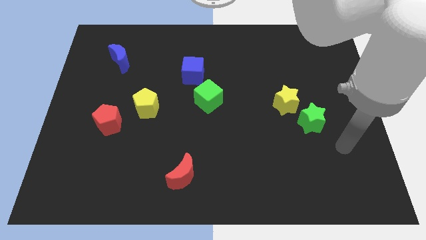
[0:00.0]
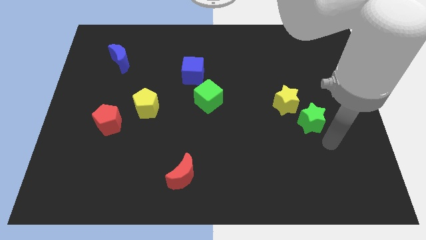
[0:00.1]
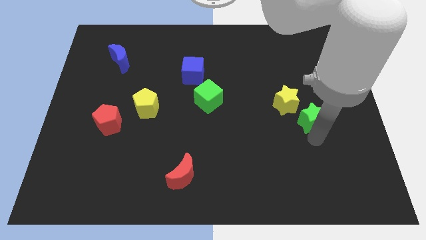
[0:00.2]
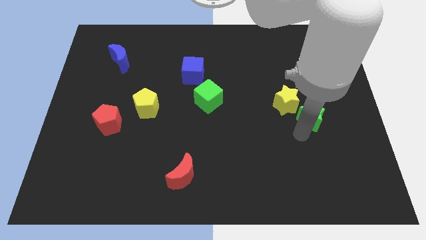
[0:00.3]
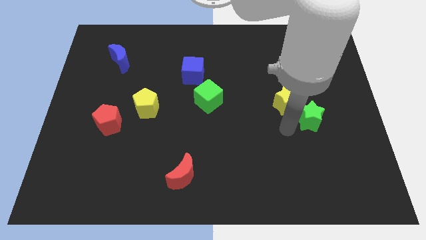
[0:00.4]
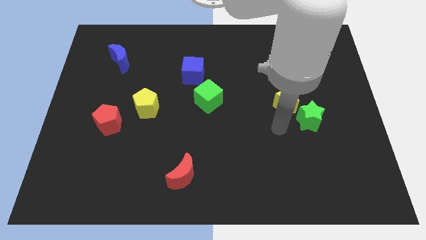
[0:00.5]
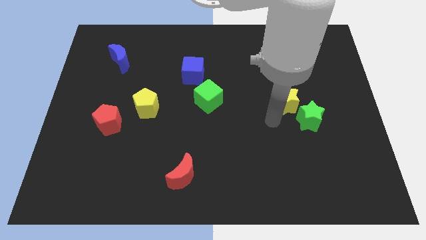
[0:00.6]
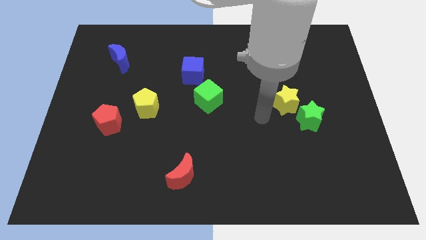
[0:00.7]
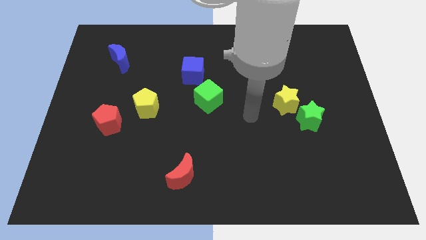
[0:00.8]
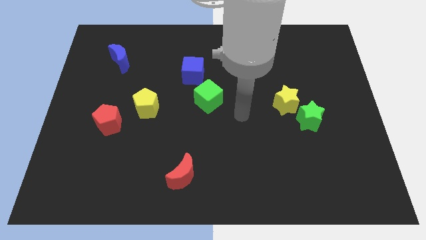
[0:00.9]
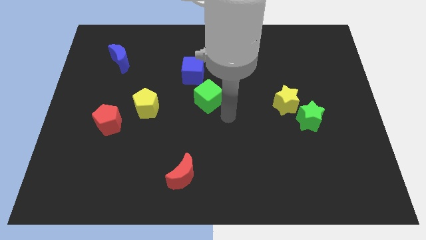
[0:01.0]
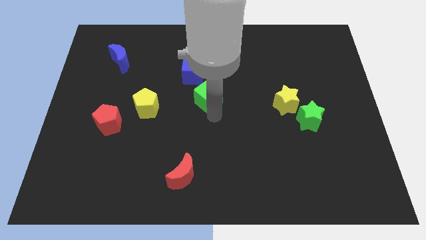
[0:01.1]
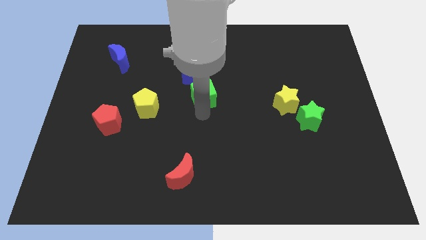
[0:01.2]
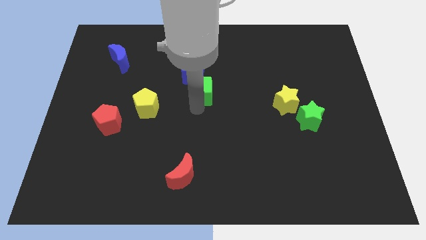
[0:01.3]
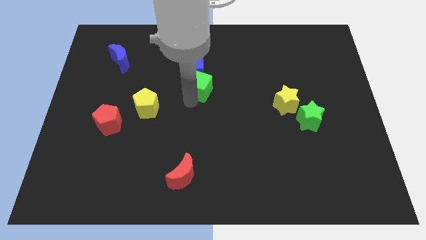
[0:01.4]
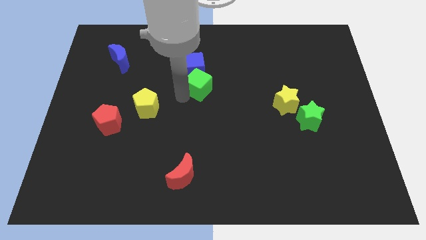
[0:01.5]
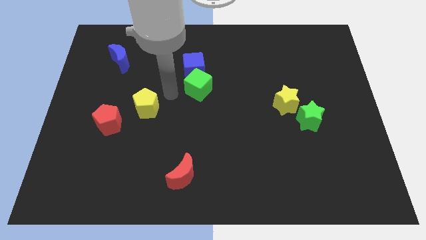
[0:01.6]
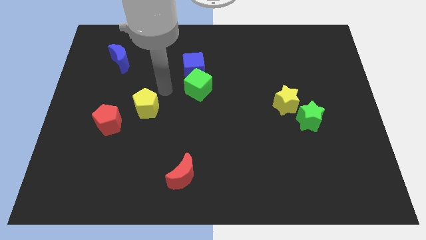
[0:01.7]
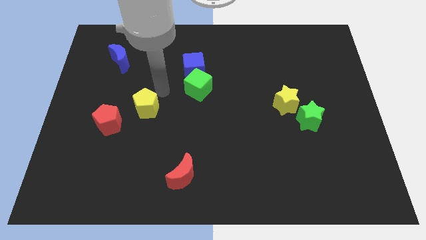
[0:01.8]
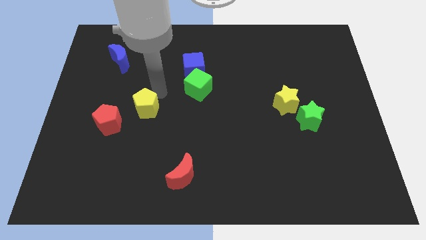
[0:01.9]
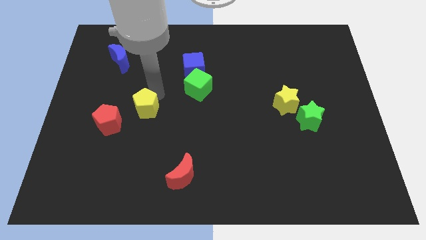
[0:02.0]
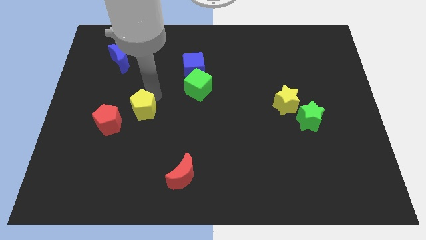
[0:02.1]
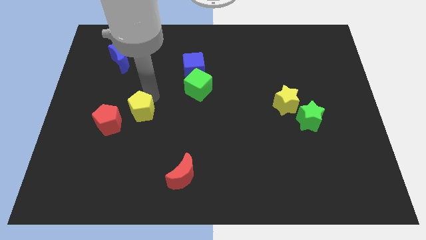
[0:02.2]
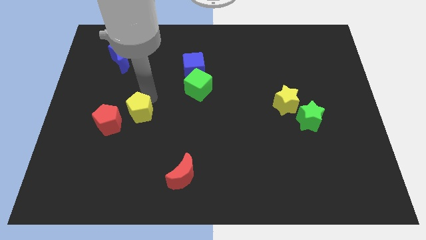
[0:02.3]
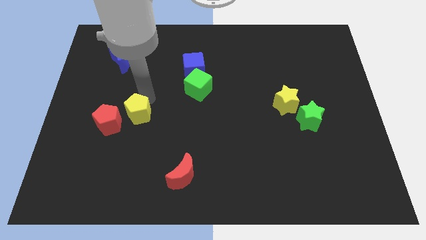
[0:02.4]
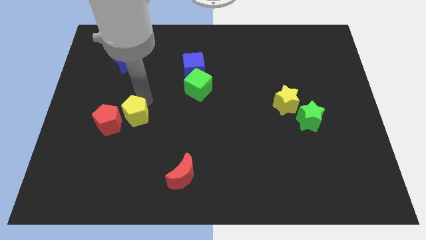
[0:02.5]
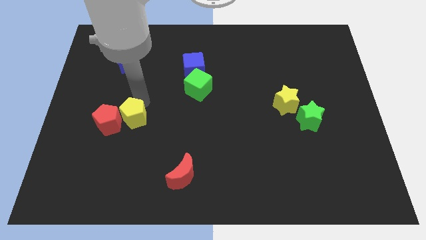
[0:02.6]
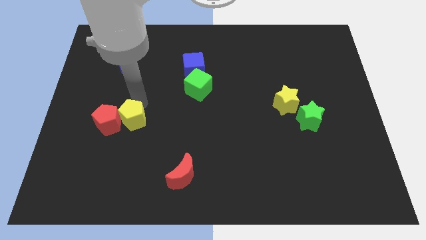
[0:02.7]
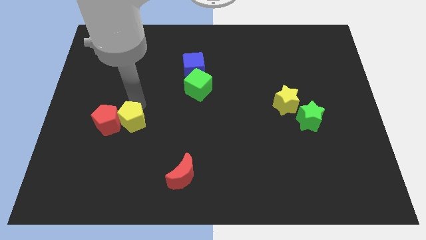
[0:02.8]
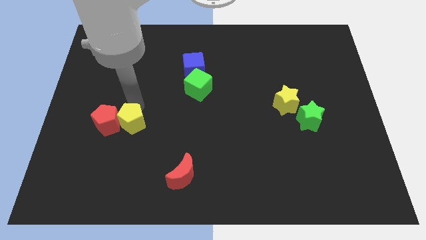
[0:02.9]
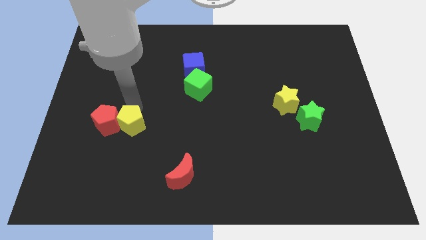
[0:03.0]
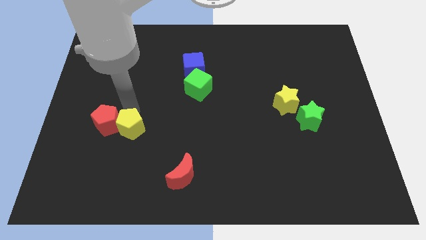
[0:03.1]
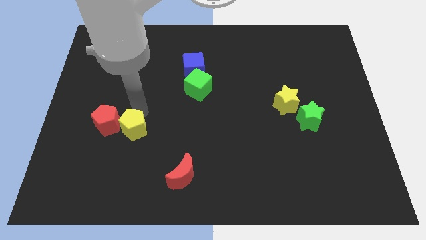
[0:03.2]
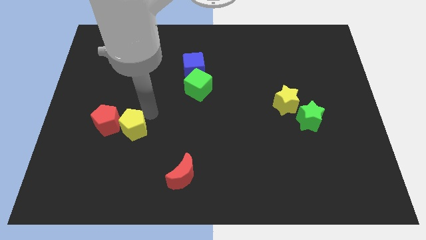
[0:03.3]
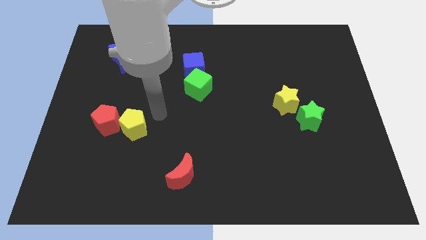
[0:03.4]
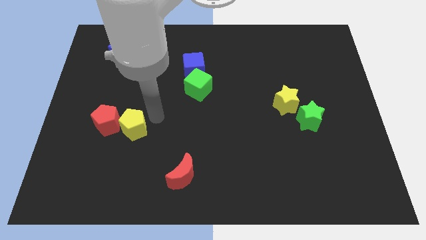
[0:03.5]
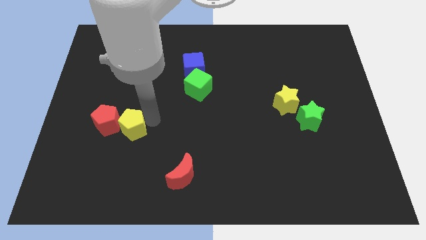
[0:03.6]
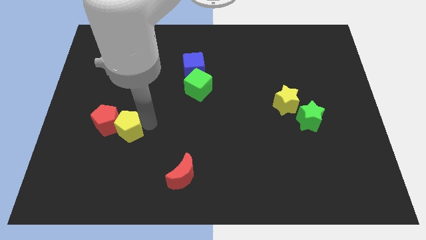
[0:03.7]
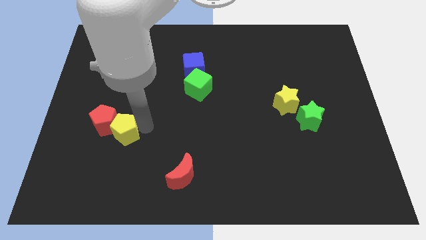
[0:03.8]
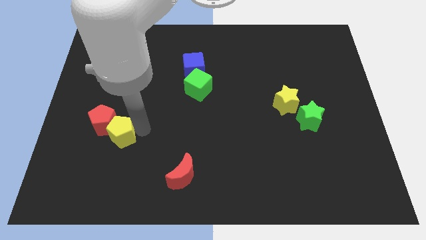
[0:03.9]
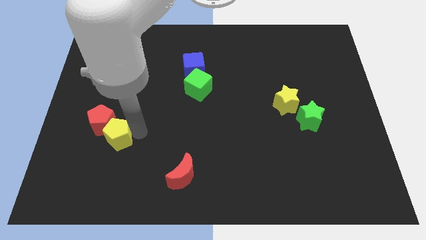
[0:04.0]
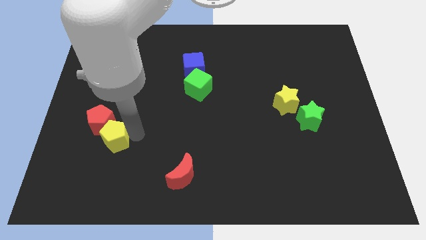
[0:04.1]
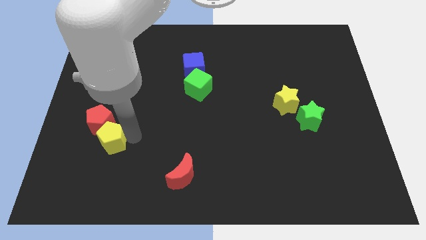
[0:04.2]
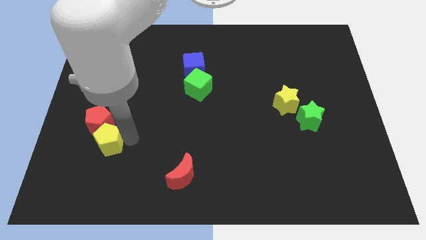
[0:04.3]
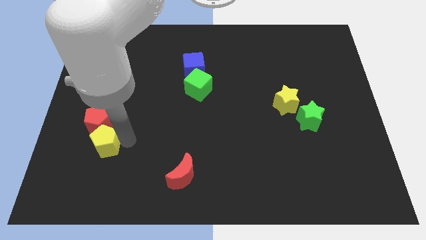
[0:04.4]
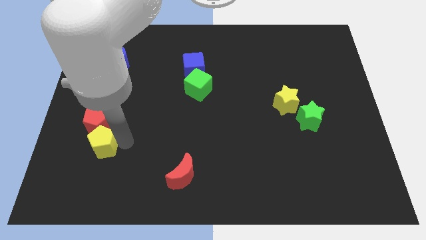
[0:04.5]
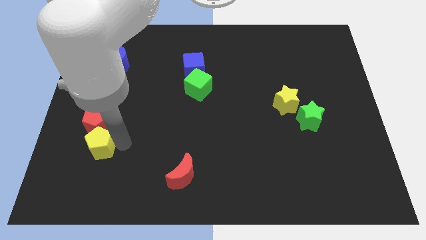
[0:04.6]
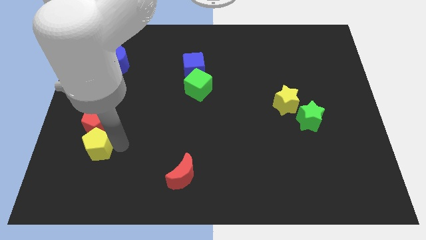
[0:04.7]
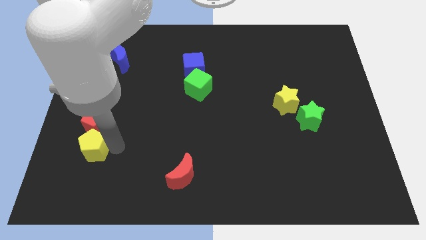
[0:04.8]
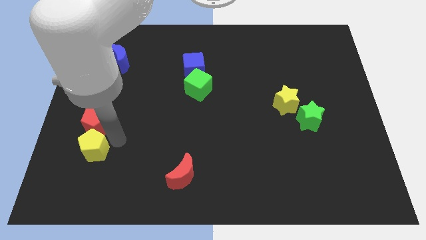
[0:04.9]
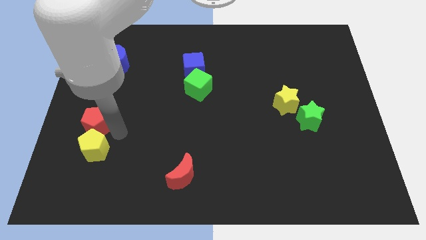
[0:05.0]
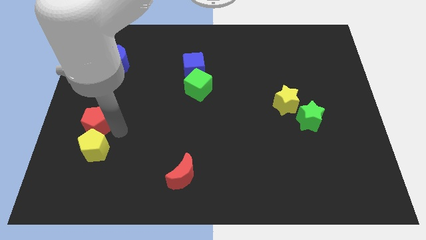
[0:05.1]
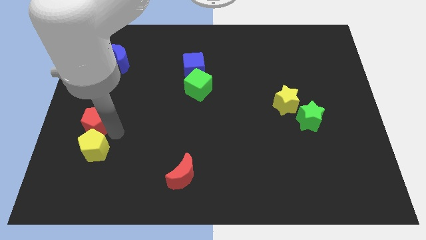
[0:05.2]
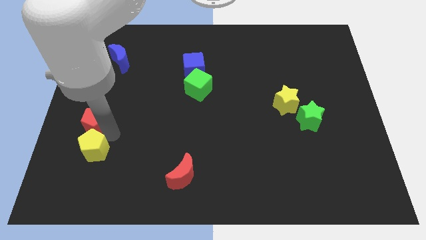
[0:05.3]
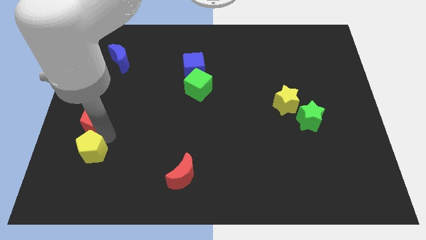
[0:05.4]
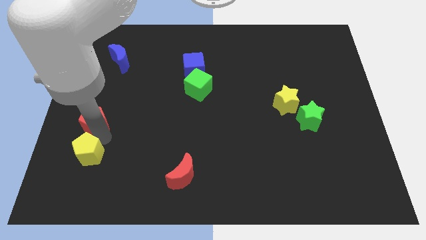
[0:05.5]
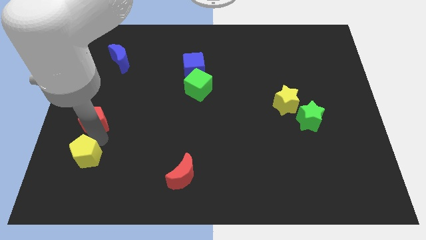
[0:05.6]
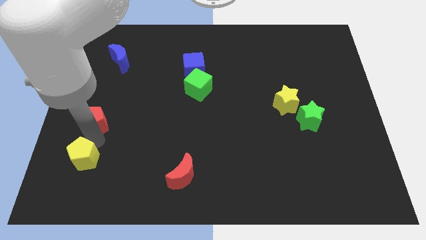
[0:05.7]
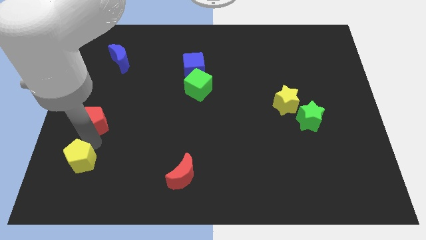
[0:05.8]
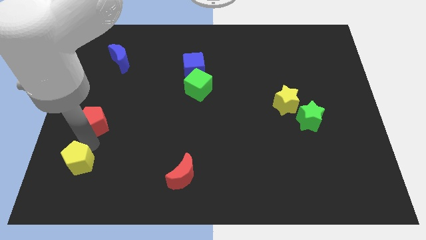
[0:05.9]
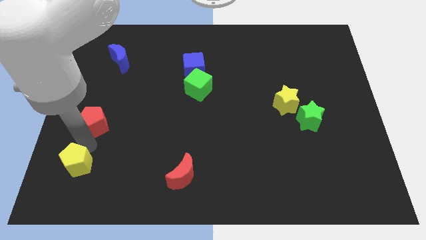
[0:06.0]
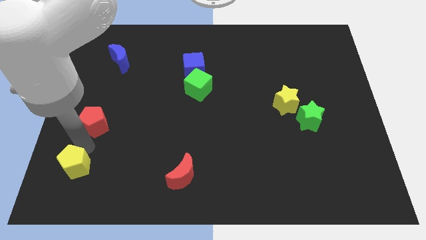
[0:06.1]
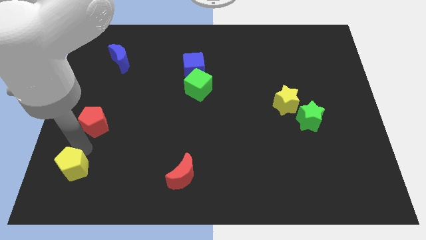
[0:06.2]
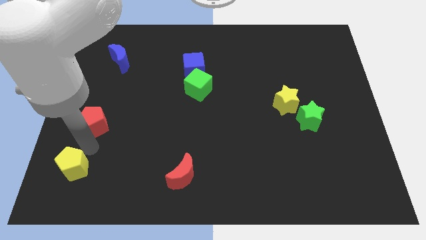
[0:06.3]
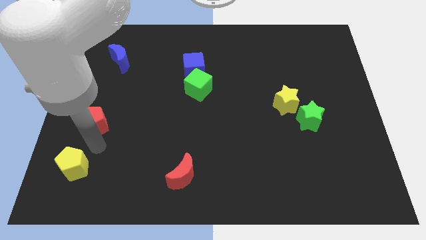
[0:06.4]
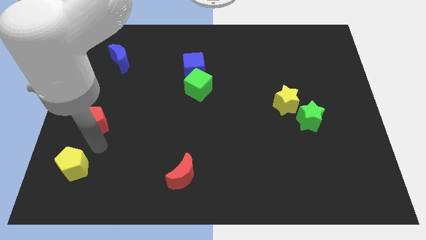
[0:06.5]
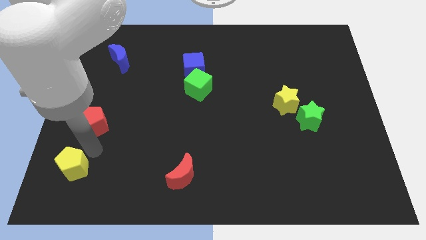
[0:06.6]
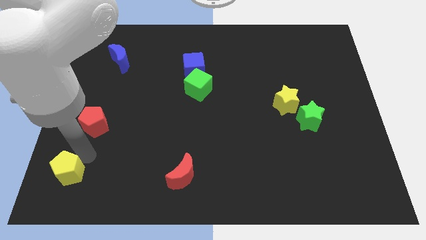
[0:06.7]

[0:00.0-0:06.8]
move the yellow pentagon to the lower left corner

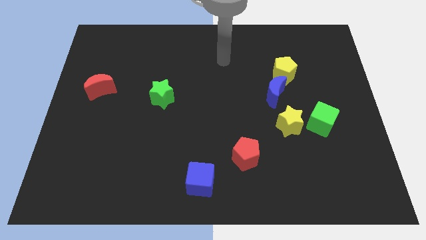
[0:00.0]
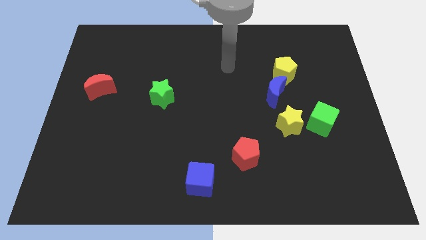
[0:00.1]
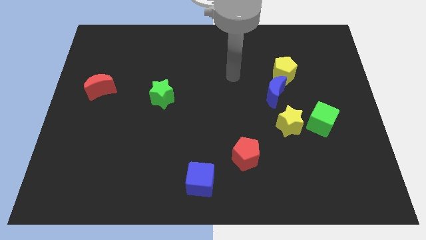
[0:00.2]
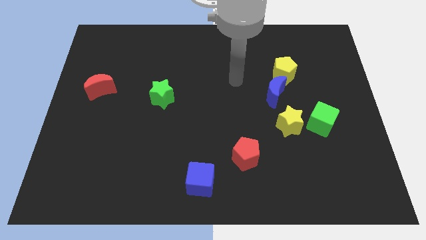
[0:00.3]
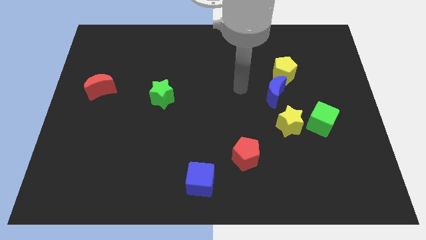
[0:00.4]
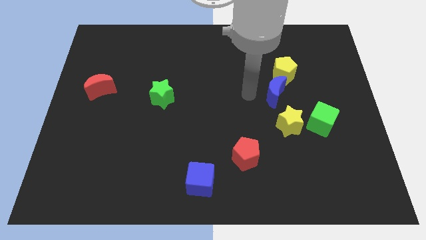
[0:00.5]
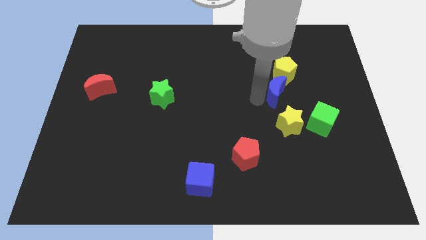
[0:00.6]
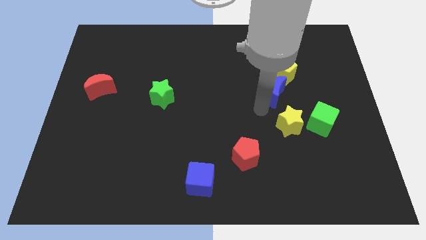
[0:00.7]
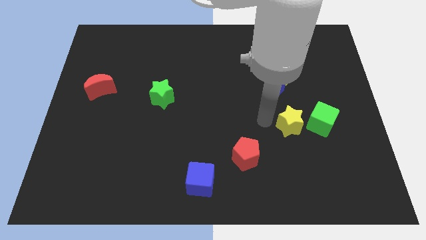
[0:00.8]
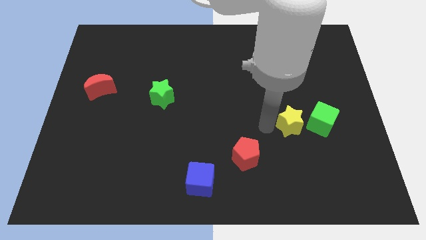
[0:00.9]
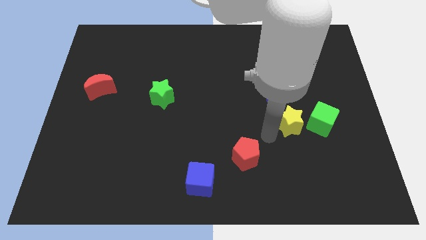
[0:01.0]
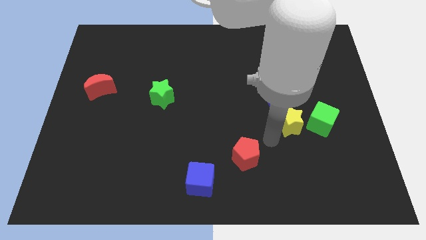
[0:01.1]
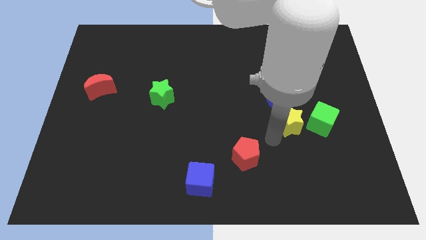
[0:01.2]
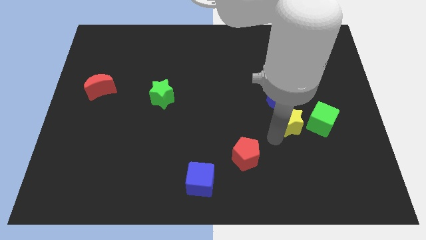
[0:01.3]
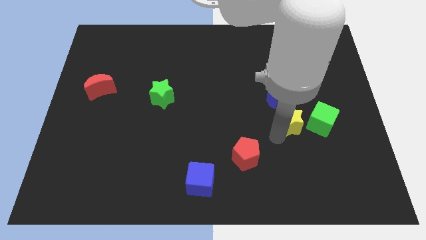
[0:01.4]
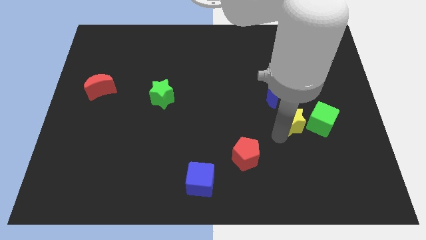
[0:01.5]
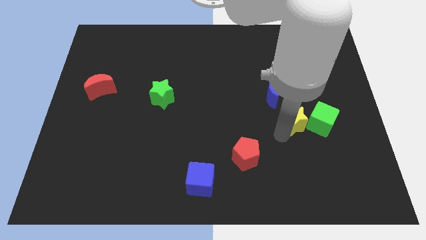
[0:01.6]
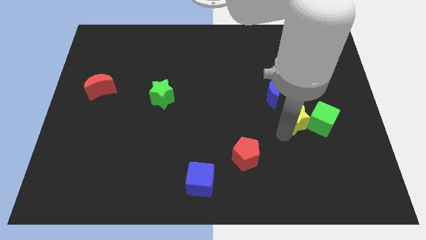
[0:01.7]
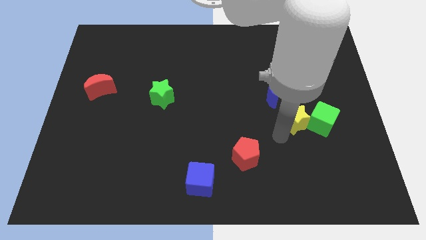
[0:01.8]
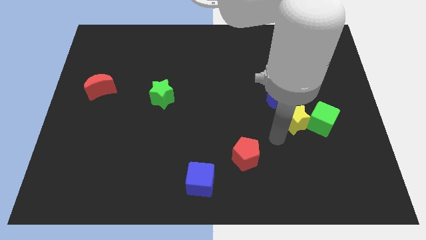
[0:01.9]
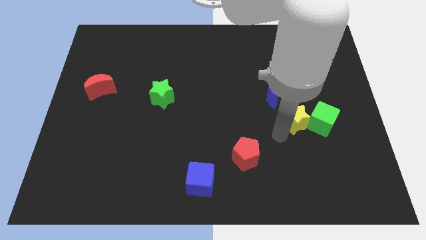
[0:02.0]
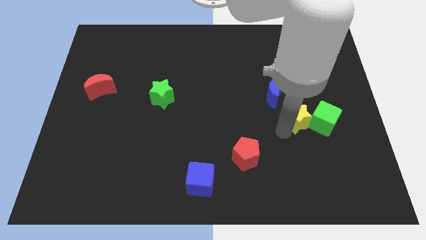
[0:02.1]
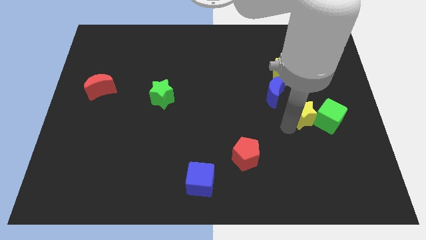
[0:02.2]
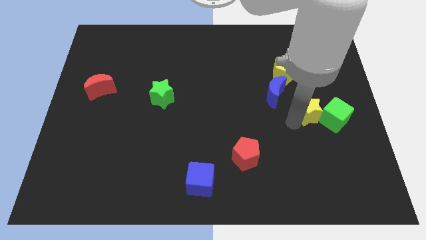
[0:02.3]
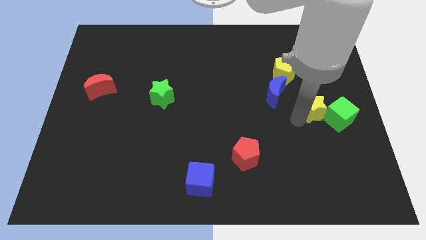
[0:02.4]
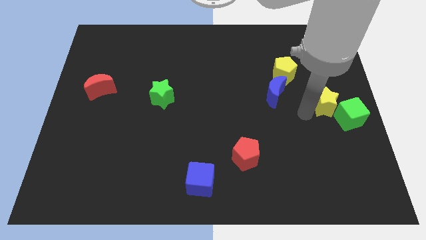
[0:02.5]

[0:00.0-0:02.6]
slide the yellow star to the right side
